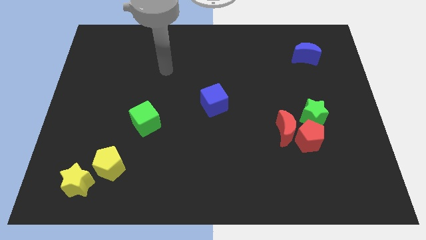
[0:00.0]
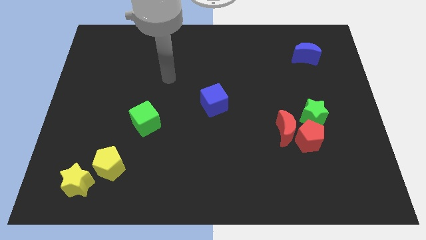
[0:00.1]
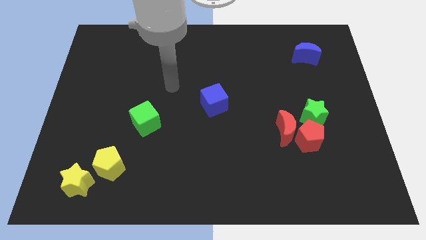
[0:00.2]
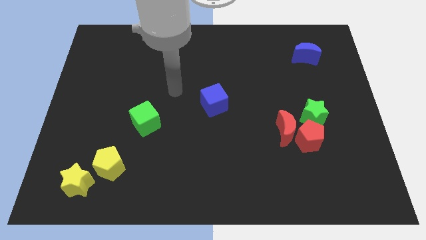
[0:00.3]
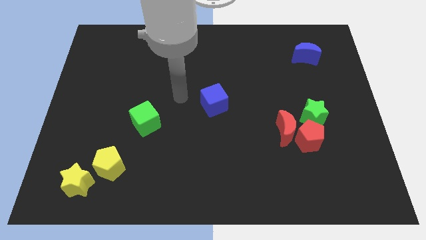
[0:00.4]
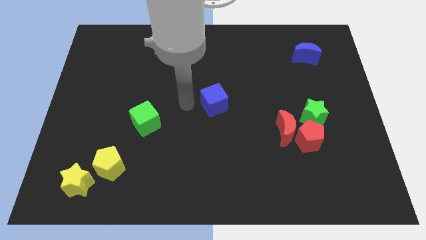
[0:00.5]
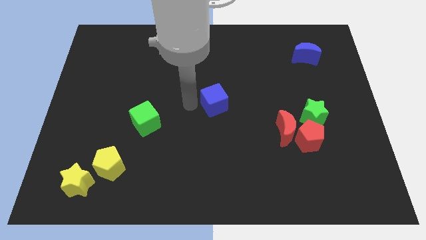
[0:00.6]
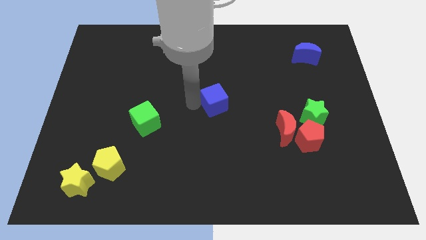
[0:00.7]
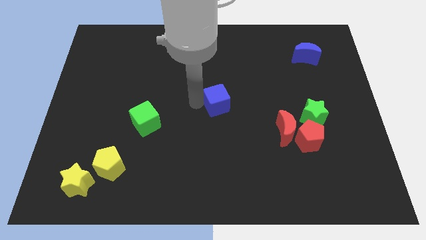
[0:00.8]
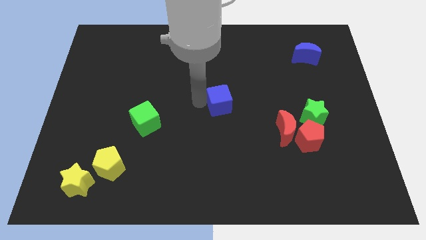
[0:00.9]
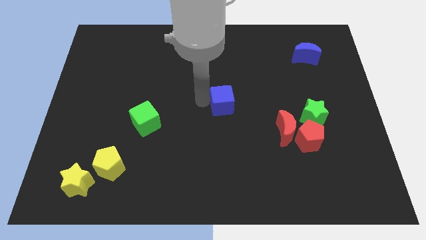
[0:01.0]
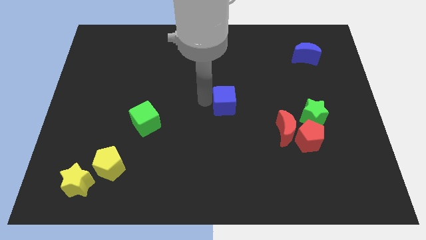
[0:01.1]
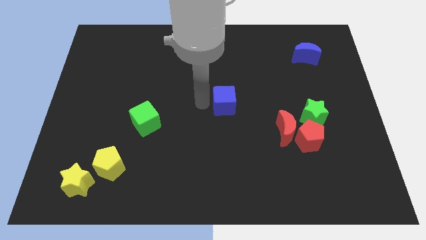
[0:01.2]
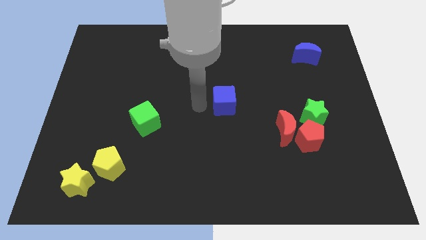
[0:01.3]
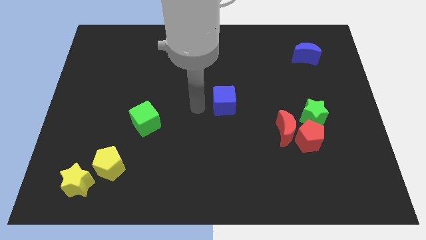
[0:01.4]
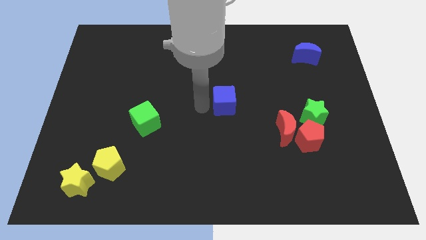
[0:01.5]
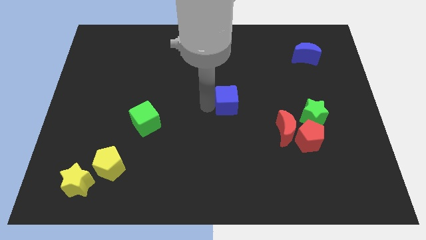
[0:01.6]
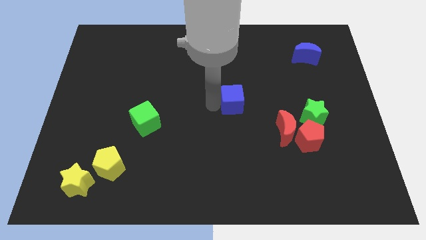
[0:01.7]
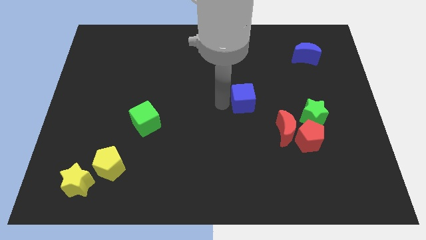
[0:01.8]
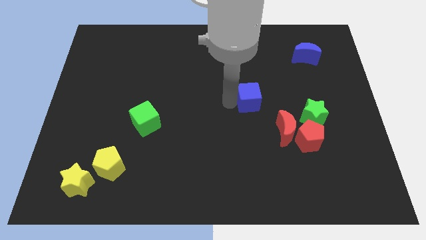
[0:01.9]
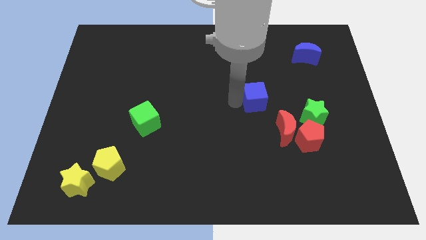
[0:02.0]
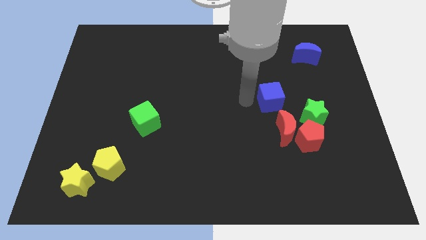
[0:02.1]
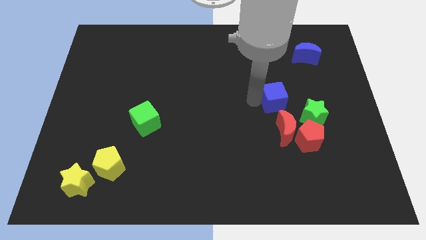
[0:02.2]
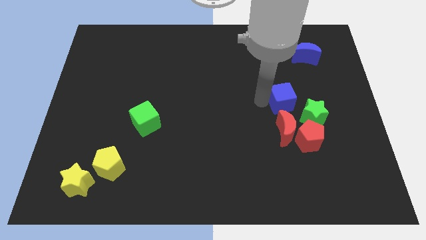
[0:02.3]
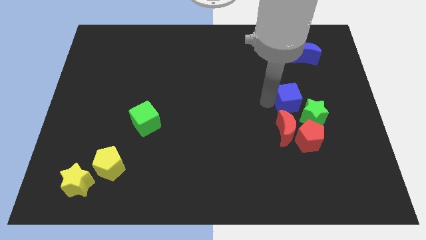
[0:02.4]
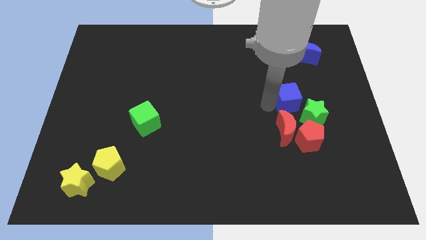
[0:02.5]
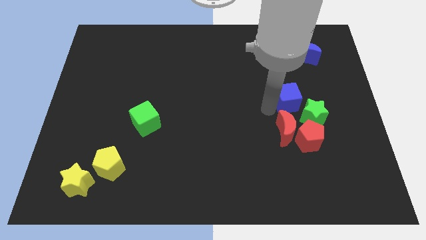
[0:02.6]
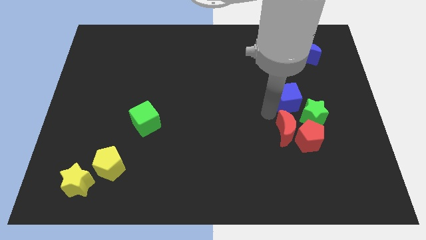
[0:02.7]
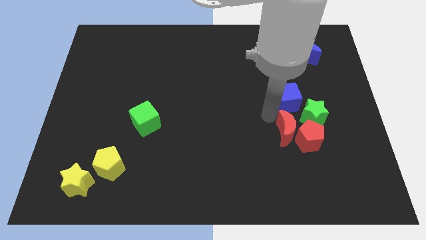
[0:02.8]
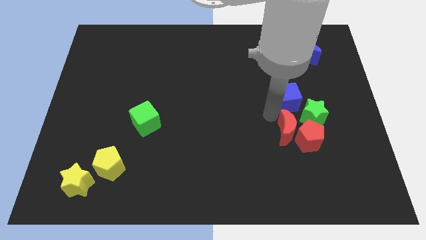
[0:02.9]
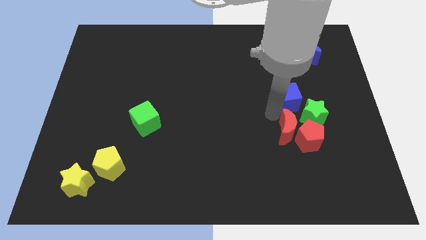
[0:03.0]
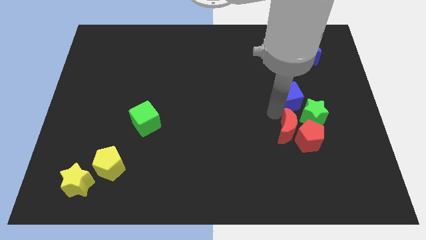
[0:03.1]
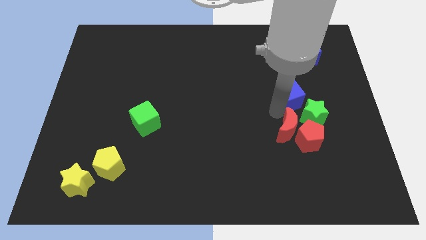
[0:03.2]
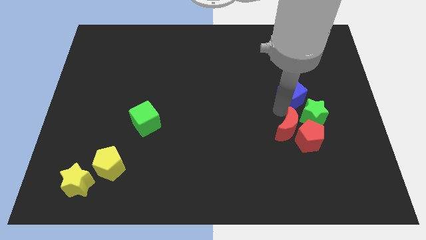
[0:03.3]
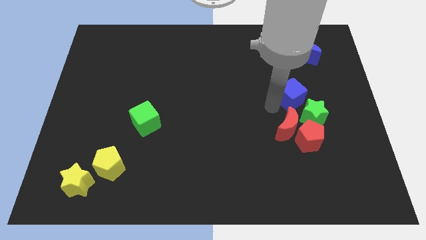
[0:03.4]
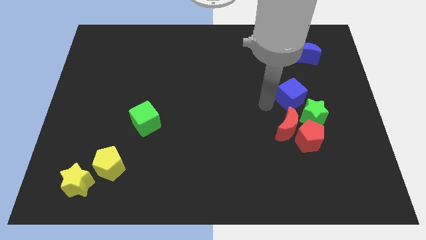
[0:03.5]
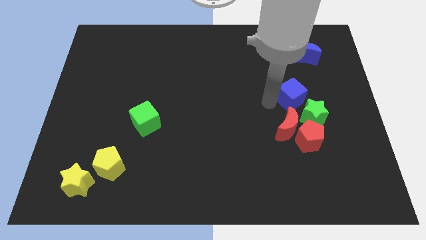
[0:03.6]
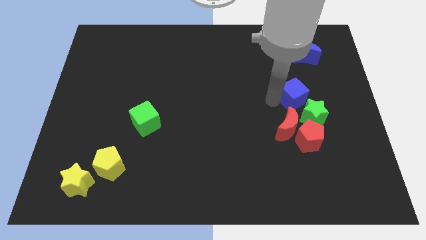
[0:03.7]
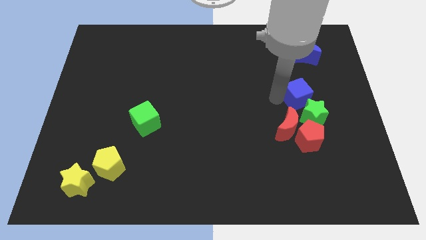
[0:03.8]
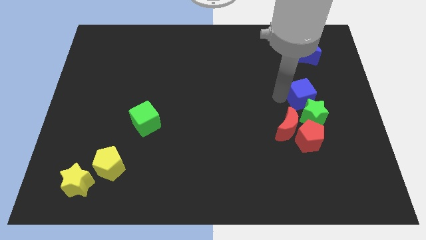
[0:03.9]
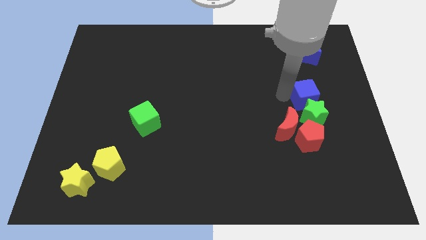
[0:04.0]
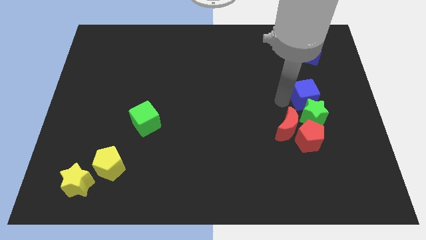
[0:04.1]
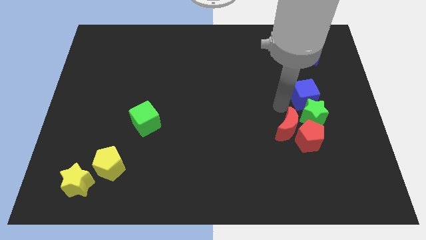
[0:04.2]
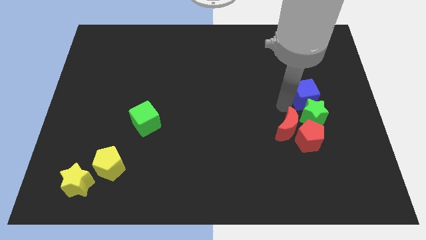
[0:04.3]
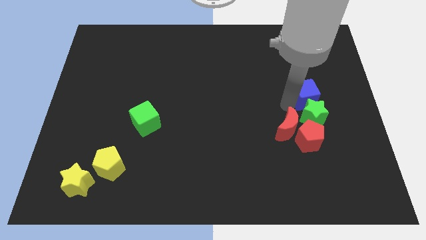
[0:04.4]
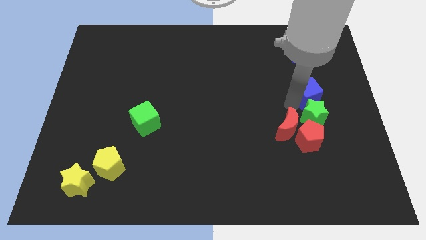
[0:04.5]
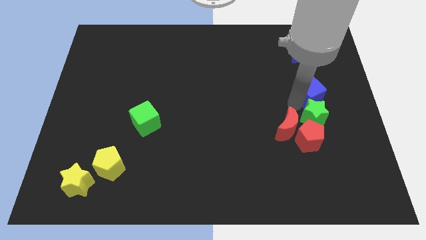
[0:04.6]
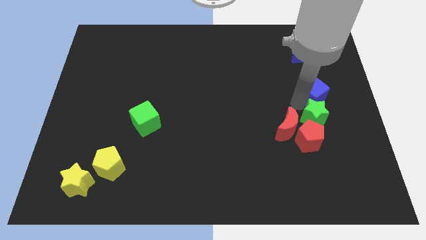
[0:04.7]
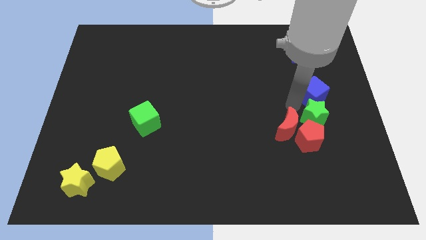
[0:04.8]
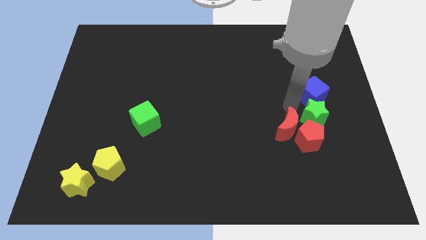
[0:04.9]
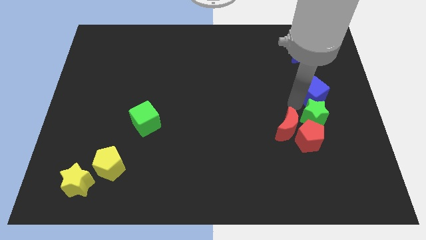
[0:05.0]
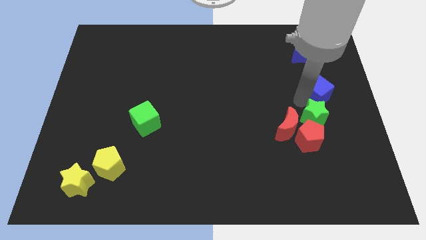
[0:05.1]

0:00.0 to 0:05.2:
slide the blue cube to the center right

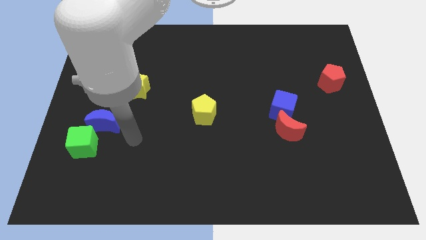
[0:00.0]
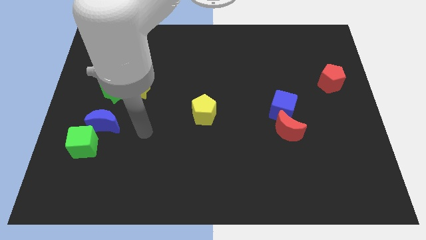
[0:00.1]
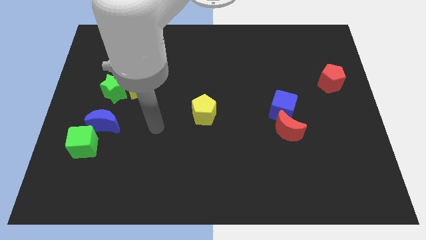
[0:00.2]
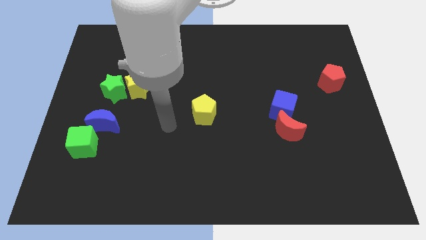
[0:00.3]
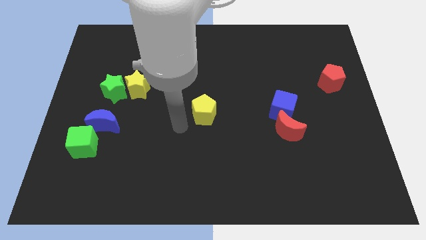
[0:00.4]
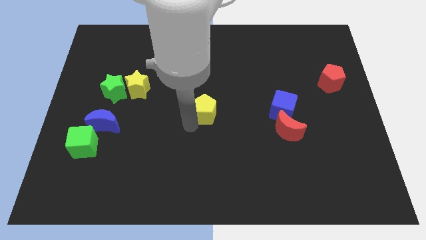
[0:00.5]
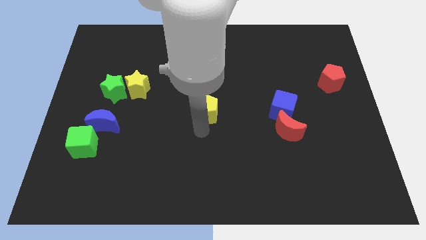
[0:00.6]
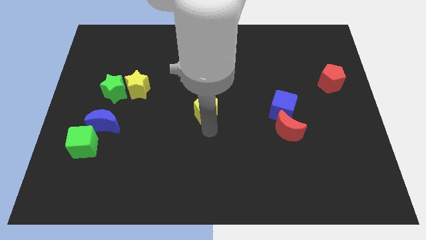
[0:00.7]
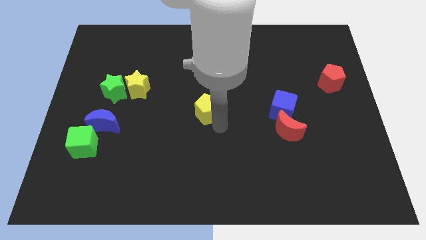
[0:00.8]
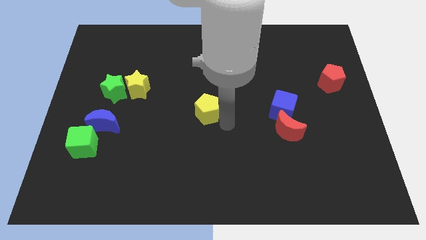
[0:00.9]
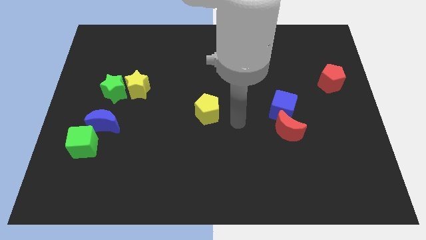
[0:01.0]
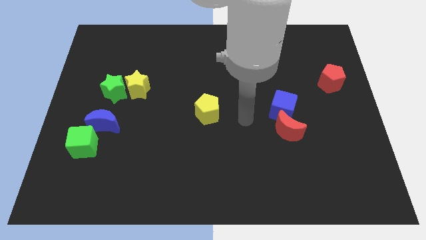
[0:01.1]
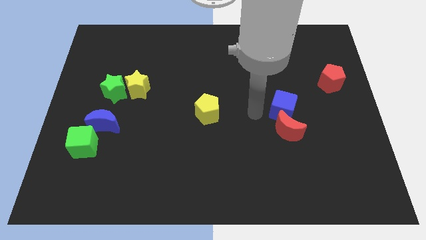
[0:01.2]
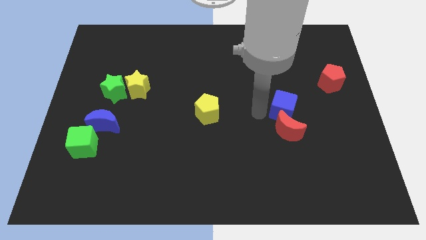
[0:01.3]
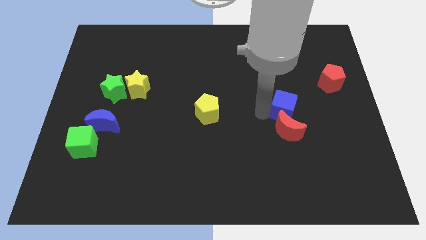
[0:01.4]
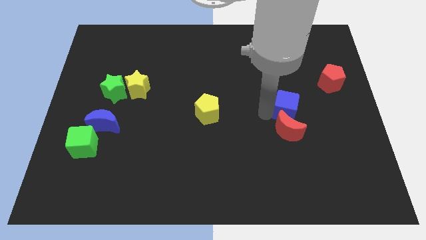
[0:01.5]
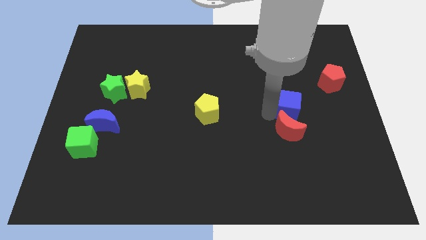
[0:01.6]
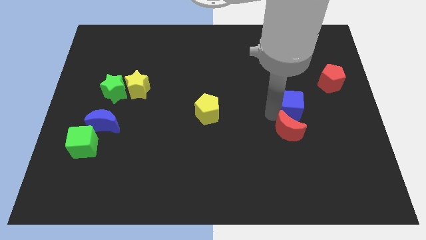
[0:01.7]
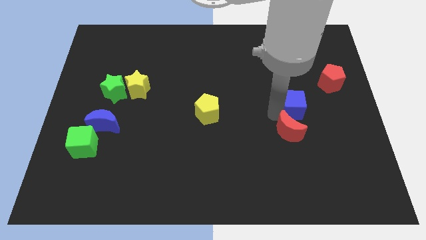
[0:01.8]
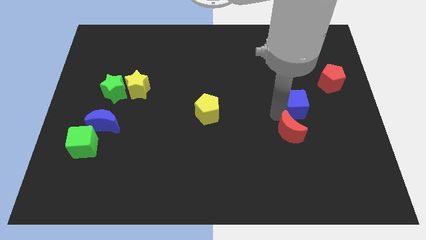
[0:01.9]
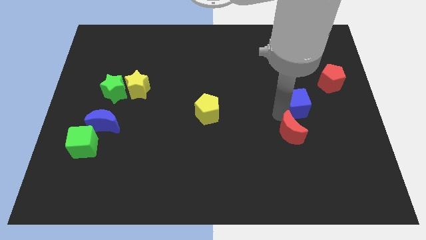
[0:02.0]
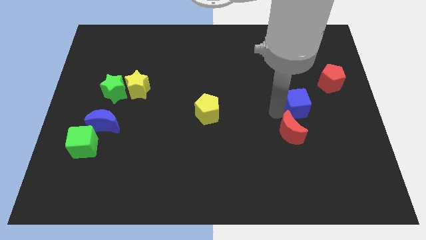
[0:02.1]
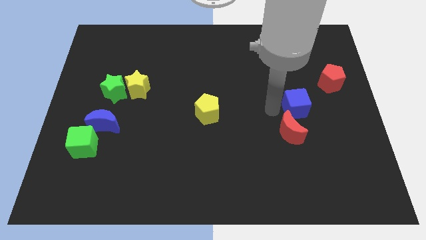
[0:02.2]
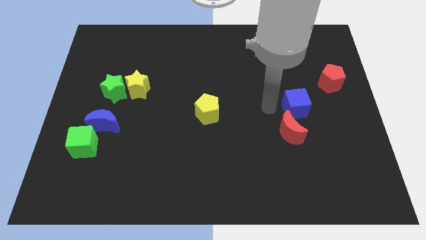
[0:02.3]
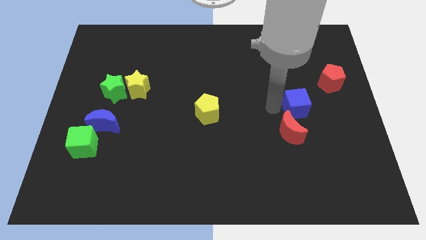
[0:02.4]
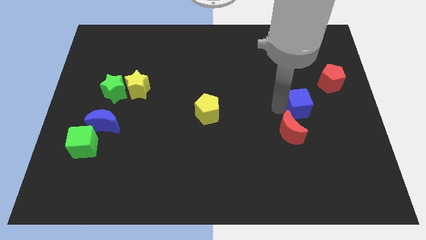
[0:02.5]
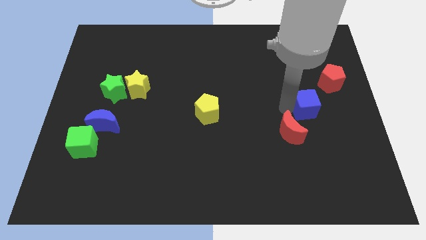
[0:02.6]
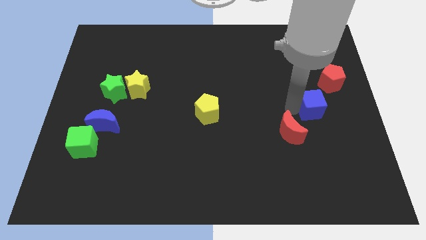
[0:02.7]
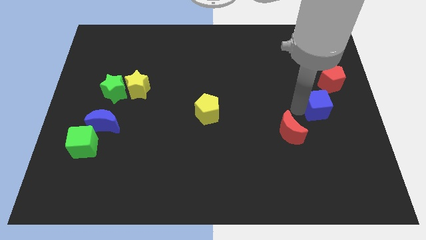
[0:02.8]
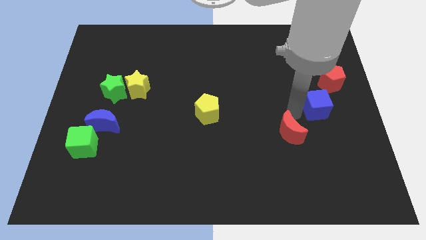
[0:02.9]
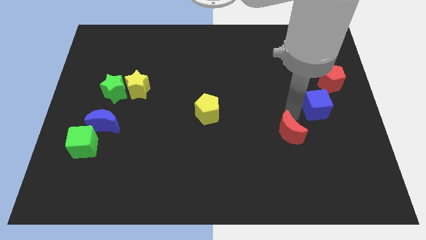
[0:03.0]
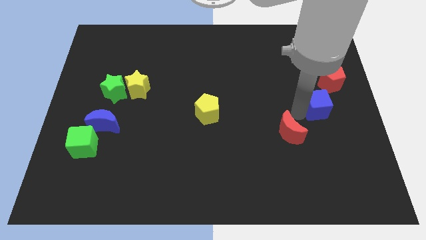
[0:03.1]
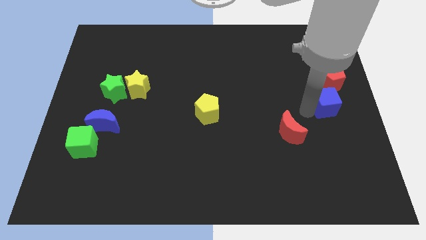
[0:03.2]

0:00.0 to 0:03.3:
put the blue cube to the right side
